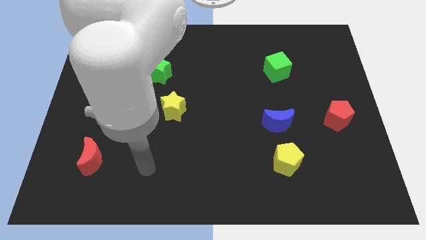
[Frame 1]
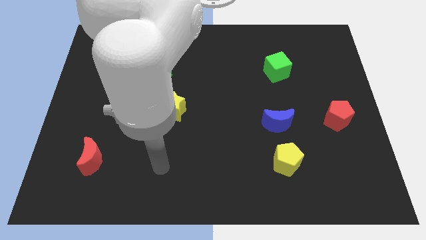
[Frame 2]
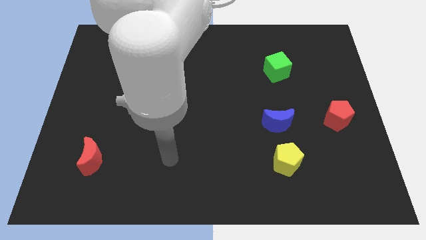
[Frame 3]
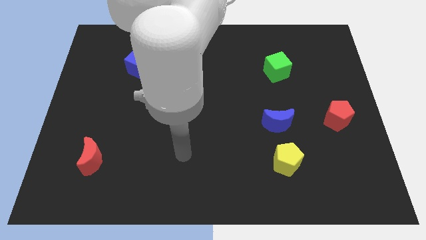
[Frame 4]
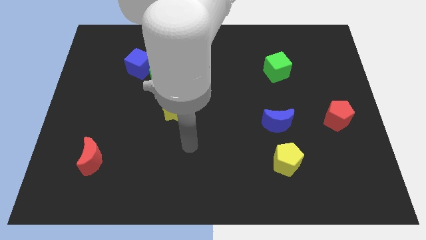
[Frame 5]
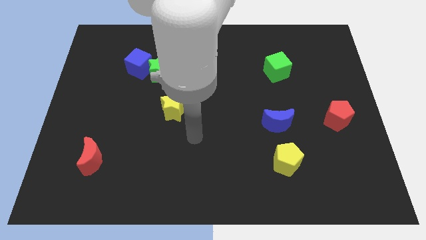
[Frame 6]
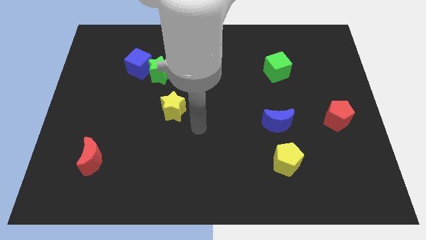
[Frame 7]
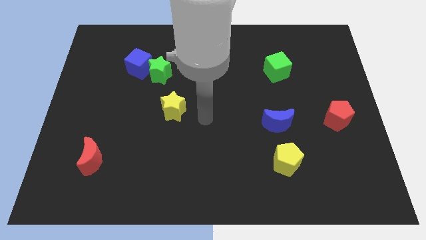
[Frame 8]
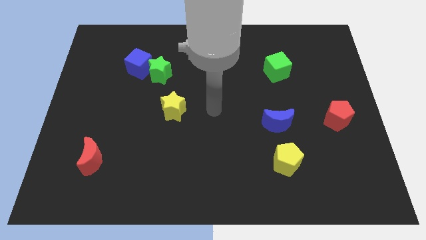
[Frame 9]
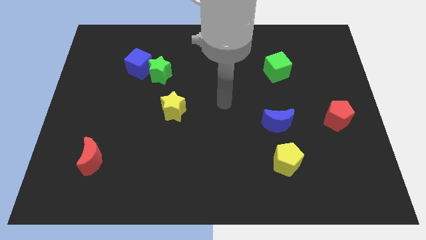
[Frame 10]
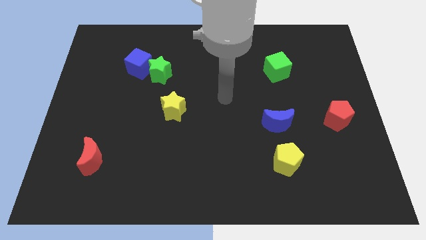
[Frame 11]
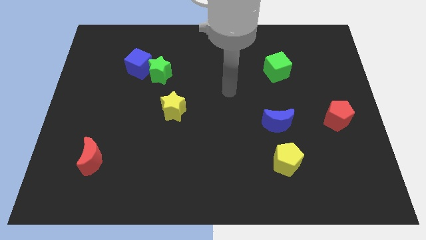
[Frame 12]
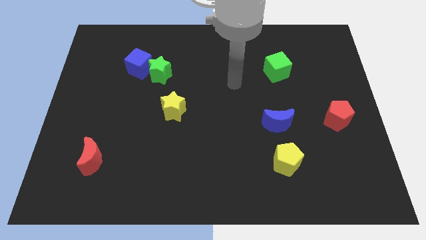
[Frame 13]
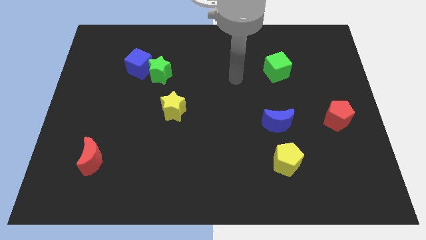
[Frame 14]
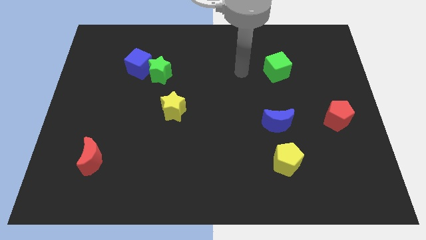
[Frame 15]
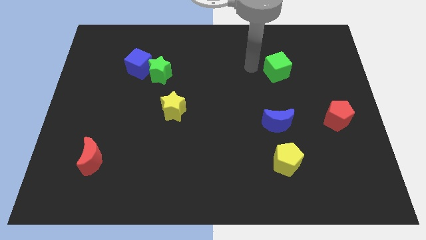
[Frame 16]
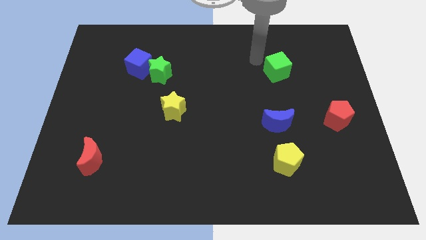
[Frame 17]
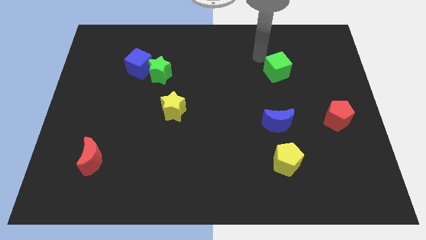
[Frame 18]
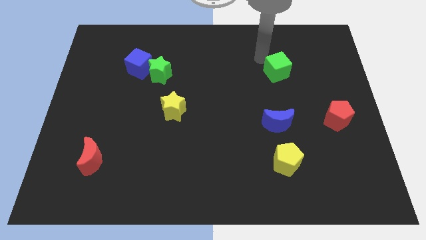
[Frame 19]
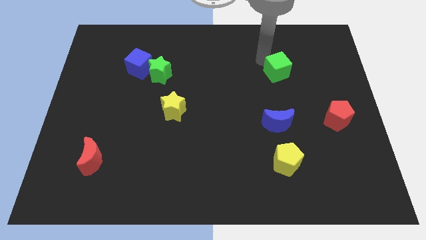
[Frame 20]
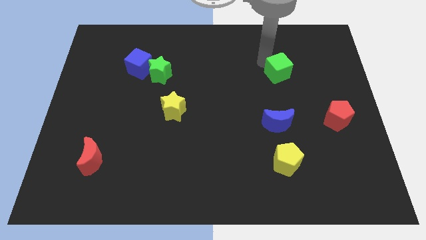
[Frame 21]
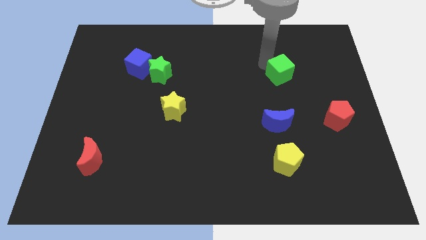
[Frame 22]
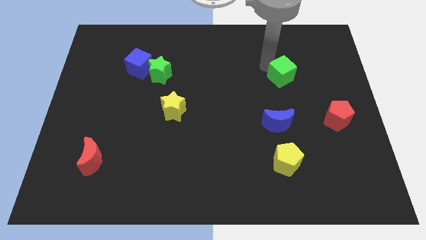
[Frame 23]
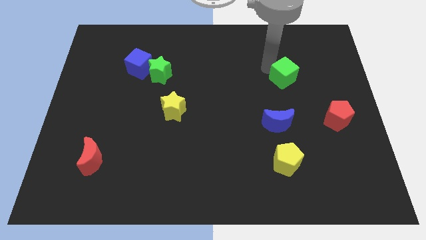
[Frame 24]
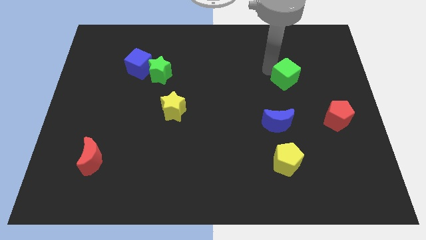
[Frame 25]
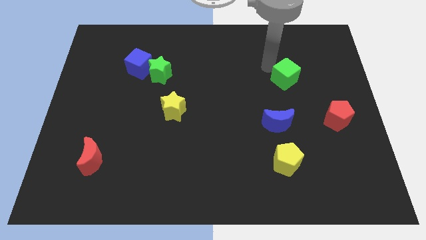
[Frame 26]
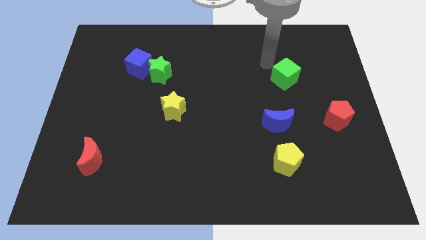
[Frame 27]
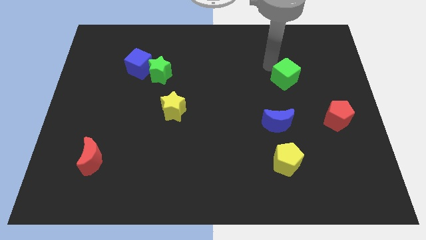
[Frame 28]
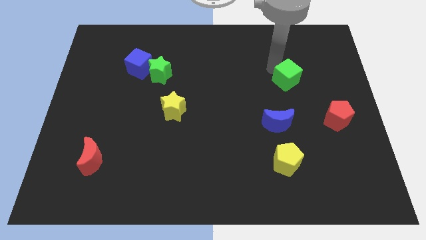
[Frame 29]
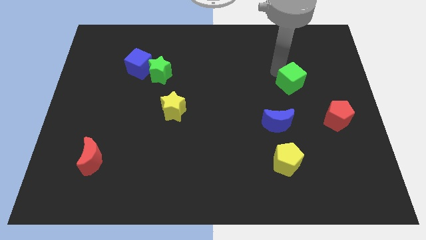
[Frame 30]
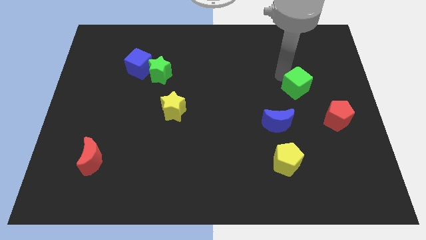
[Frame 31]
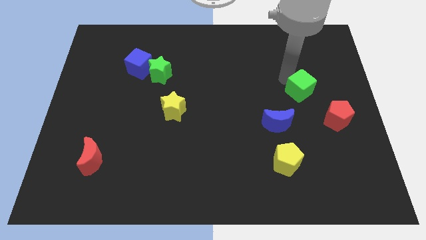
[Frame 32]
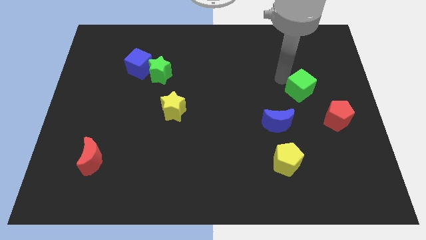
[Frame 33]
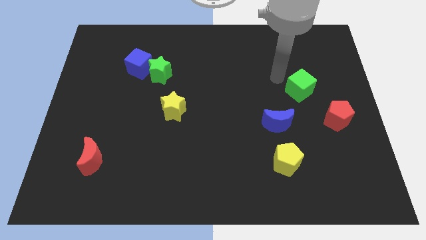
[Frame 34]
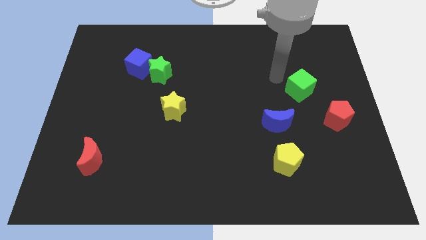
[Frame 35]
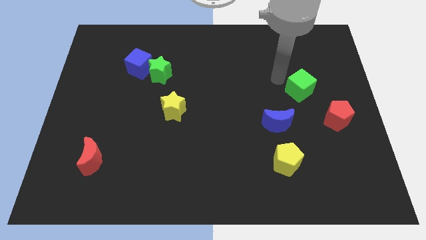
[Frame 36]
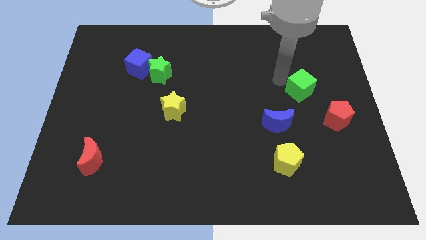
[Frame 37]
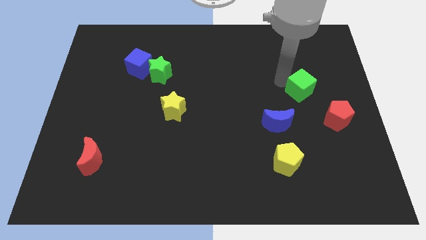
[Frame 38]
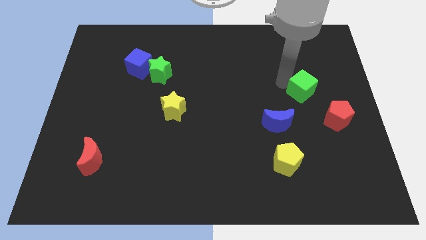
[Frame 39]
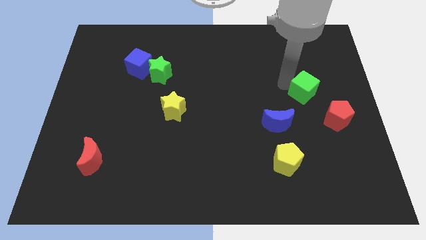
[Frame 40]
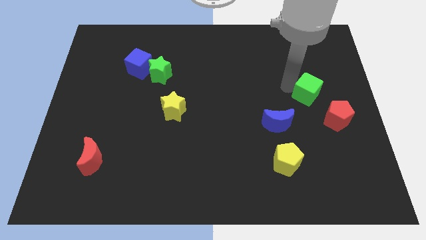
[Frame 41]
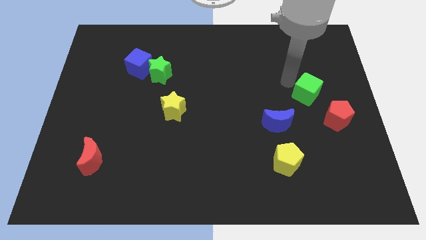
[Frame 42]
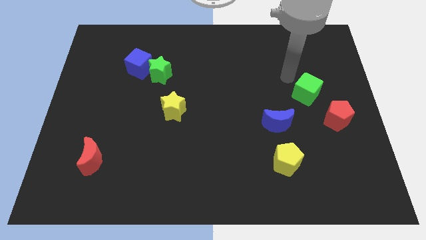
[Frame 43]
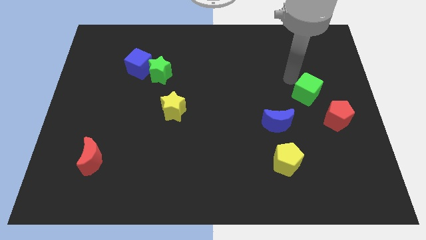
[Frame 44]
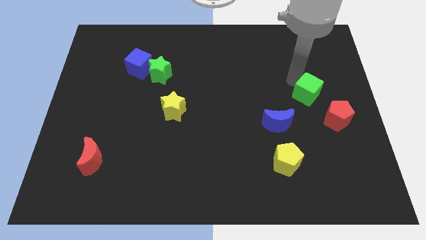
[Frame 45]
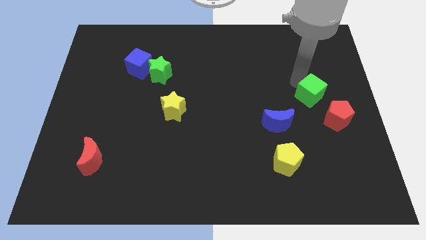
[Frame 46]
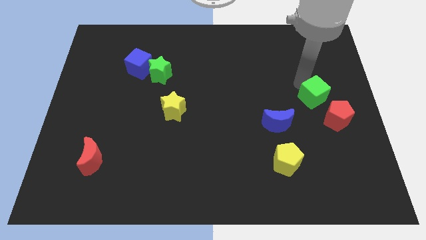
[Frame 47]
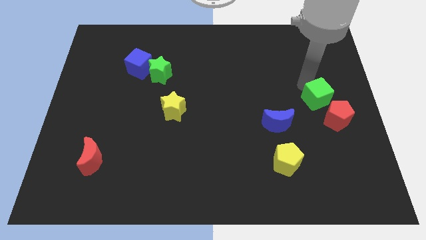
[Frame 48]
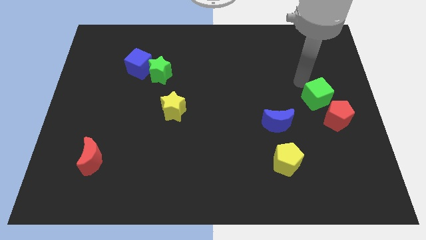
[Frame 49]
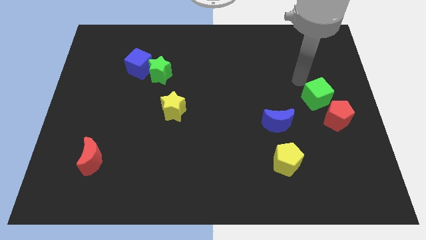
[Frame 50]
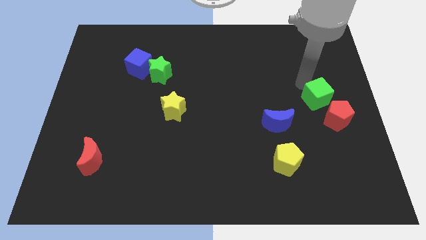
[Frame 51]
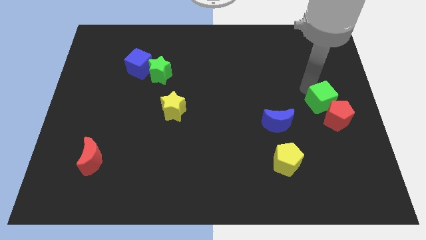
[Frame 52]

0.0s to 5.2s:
move the green cube to the red pentagon

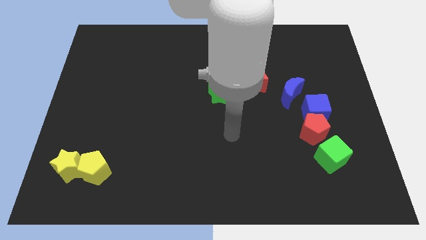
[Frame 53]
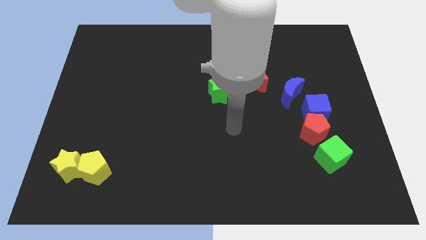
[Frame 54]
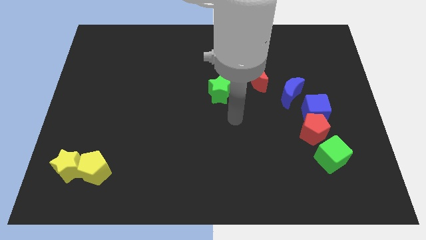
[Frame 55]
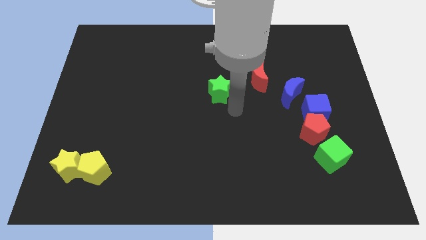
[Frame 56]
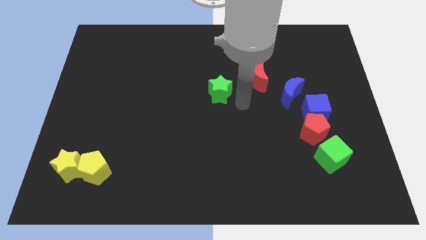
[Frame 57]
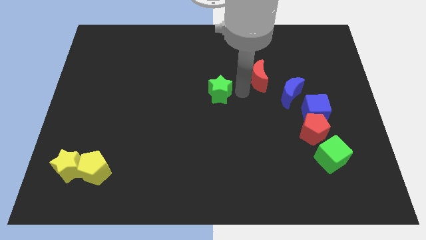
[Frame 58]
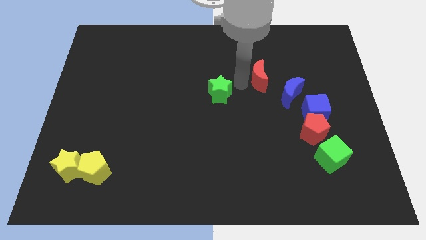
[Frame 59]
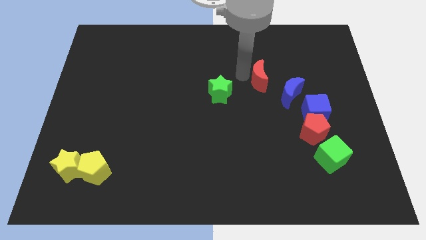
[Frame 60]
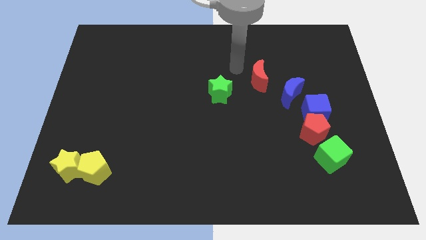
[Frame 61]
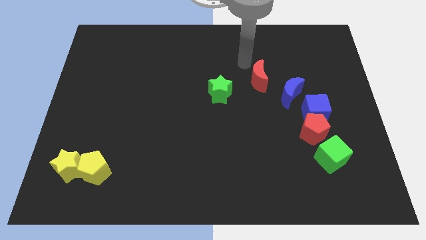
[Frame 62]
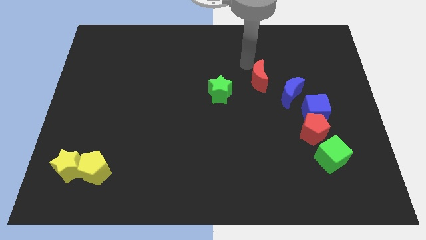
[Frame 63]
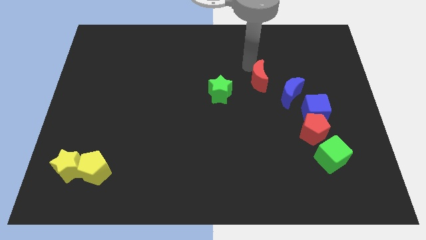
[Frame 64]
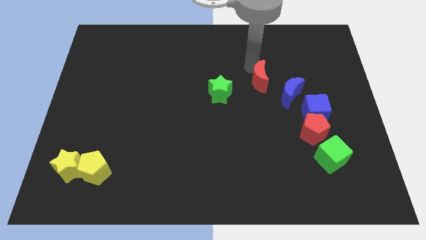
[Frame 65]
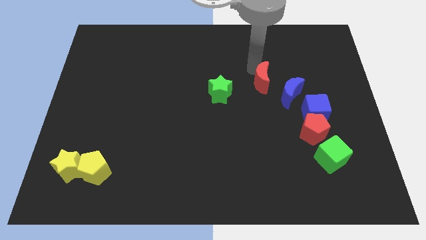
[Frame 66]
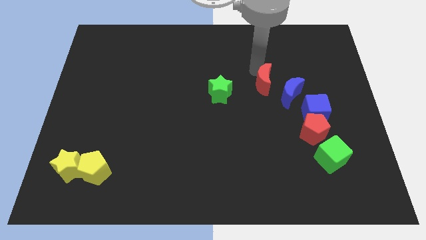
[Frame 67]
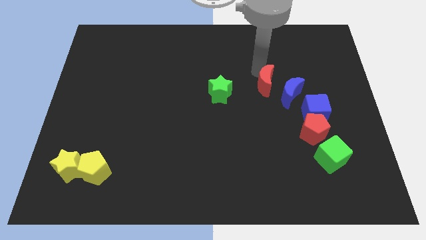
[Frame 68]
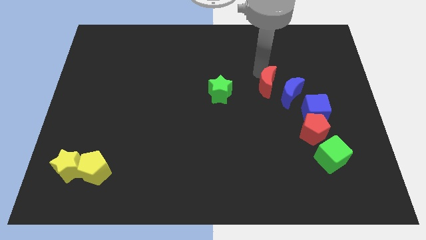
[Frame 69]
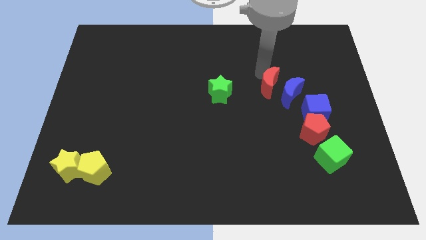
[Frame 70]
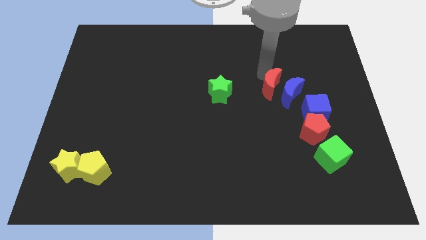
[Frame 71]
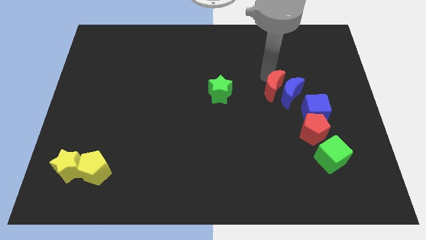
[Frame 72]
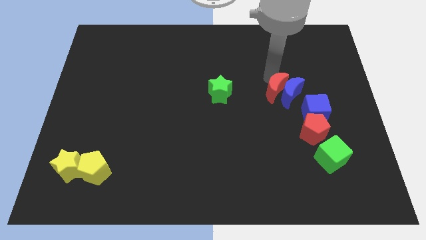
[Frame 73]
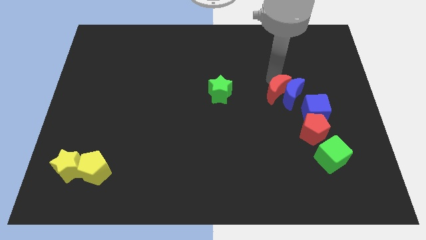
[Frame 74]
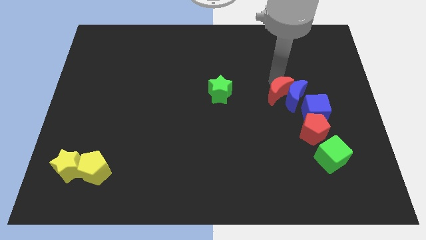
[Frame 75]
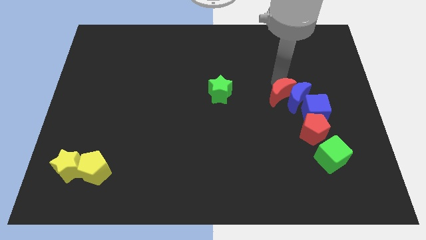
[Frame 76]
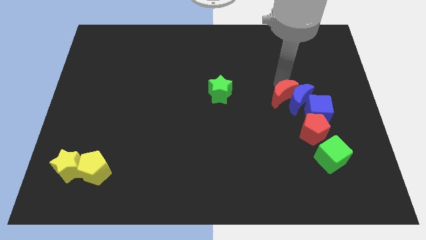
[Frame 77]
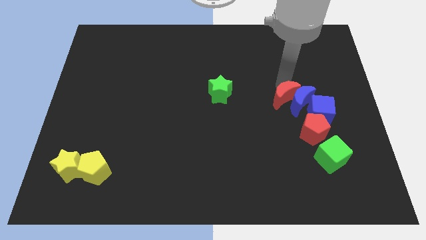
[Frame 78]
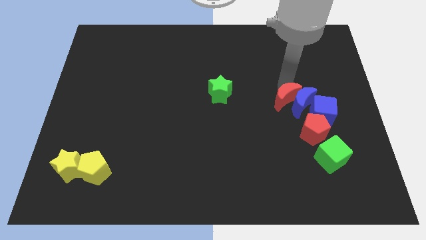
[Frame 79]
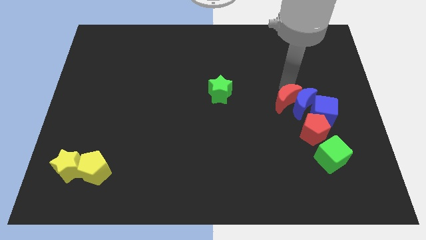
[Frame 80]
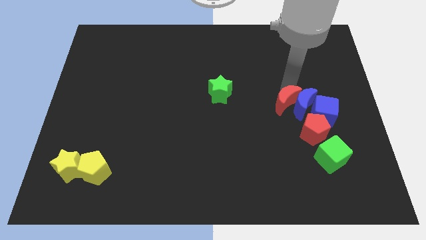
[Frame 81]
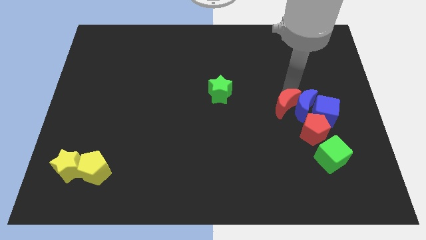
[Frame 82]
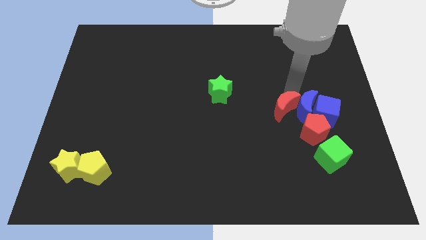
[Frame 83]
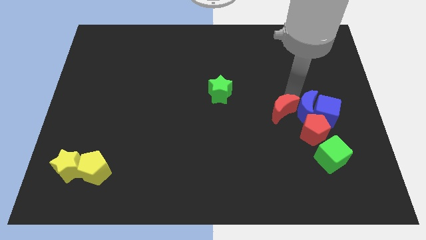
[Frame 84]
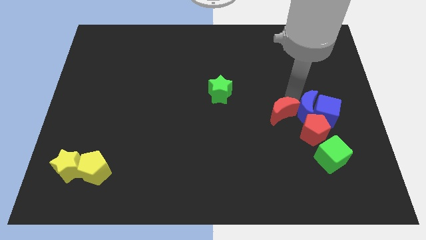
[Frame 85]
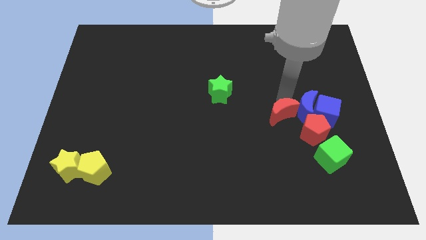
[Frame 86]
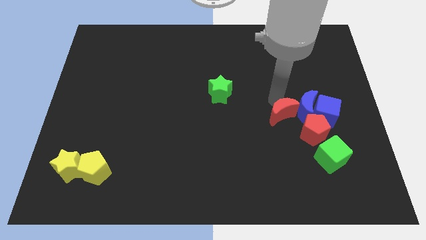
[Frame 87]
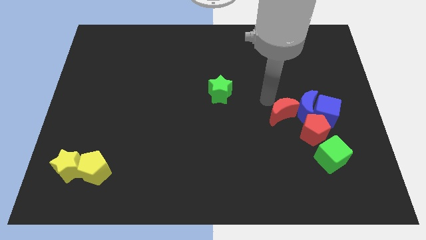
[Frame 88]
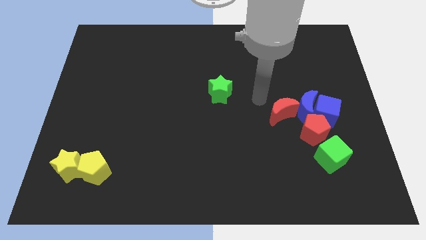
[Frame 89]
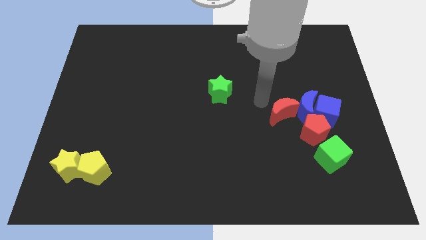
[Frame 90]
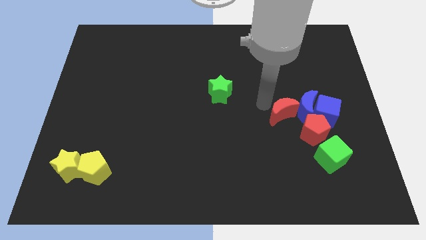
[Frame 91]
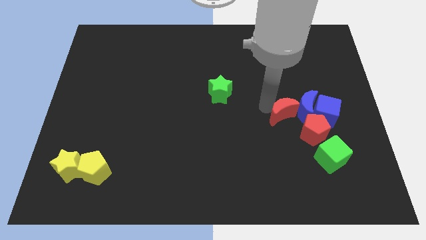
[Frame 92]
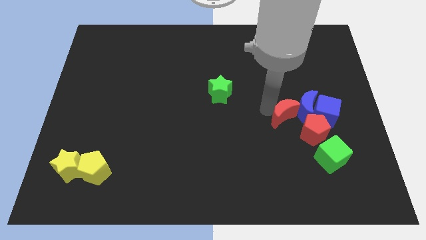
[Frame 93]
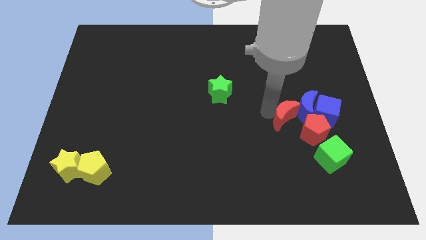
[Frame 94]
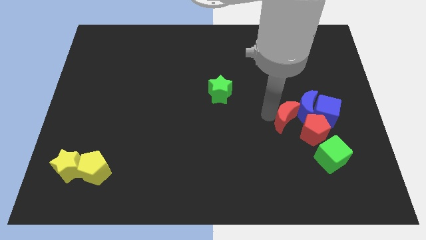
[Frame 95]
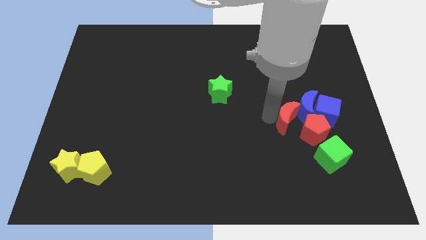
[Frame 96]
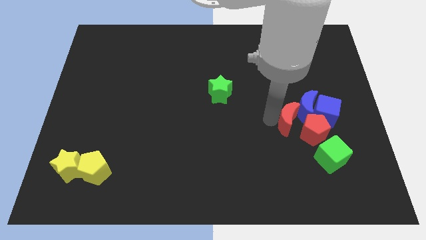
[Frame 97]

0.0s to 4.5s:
slide the red moon to the red pentagon
